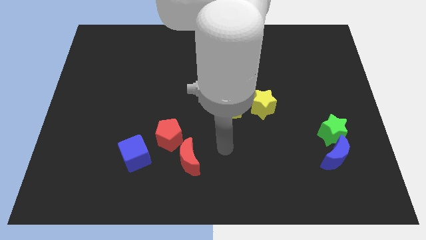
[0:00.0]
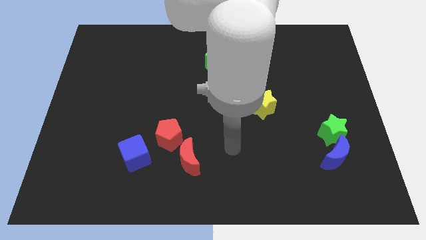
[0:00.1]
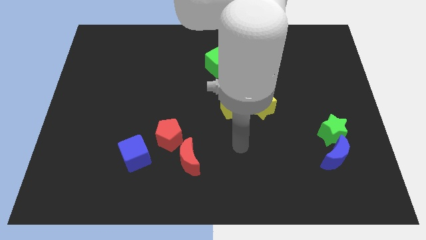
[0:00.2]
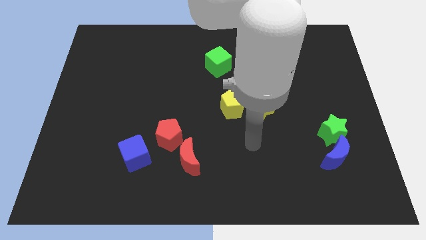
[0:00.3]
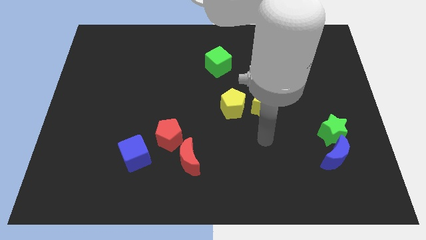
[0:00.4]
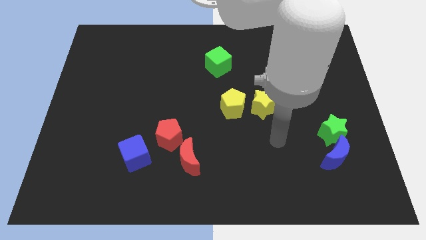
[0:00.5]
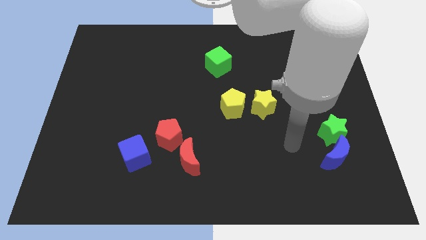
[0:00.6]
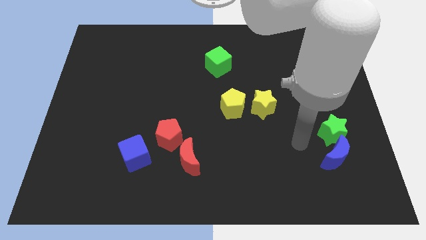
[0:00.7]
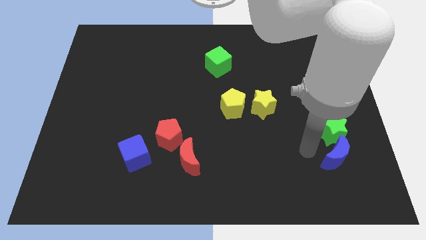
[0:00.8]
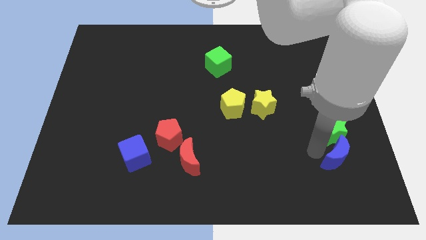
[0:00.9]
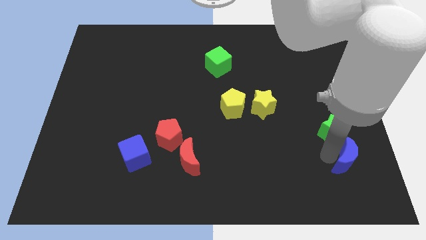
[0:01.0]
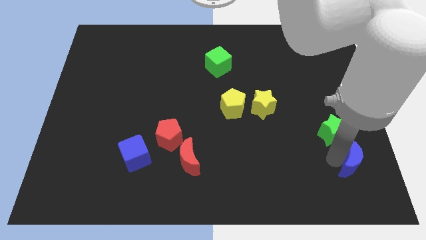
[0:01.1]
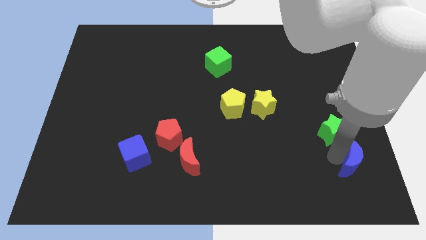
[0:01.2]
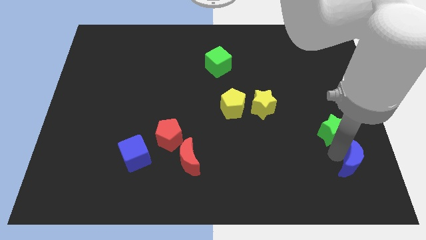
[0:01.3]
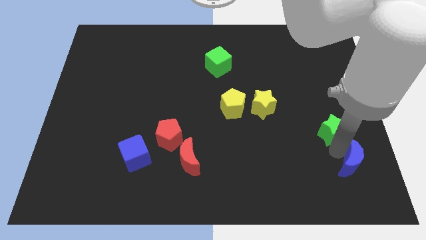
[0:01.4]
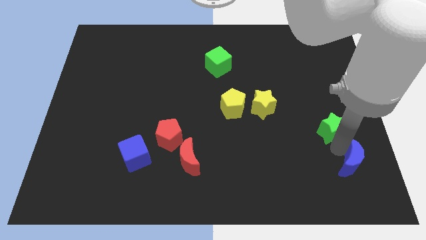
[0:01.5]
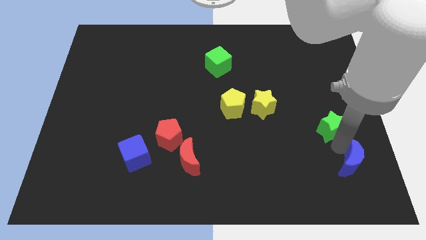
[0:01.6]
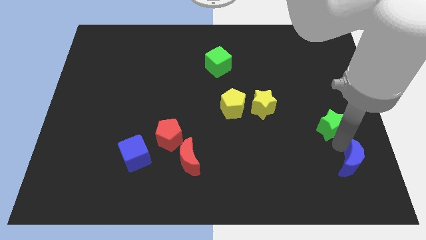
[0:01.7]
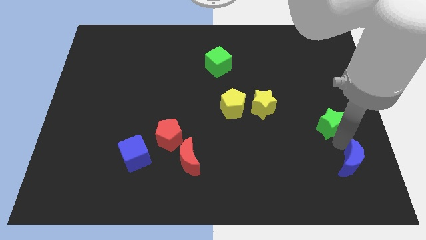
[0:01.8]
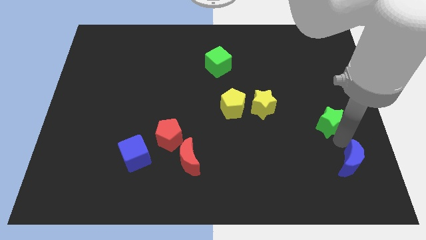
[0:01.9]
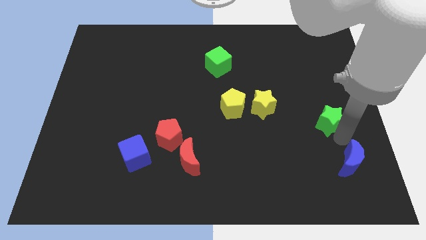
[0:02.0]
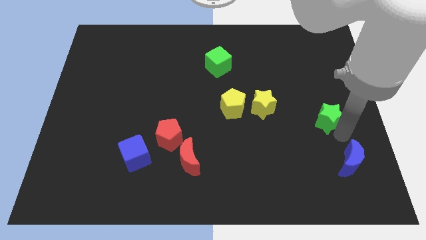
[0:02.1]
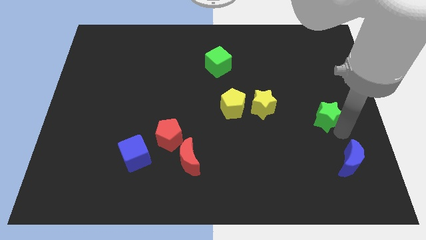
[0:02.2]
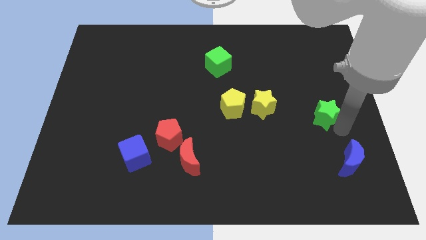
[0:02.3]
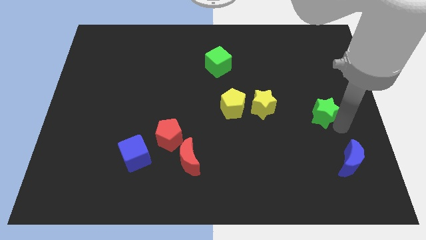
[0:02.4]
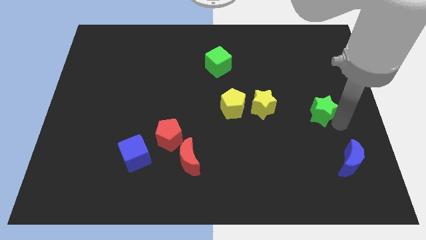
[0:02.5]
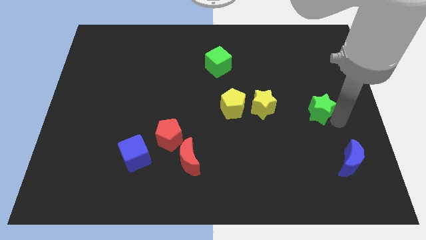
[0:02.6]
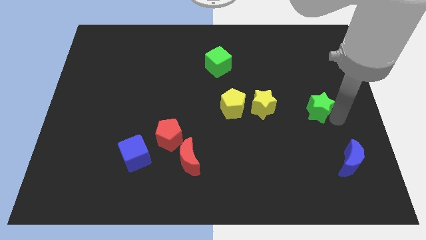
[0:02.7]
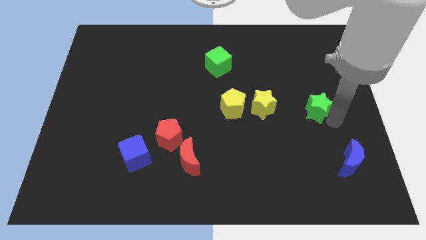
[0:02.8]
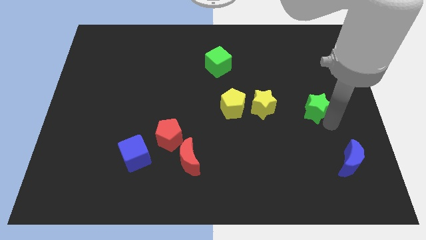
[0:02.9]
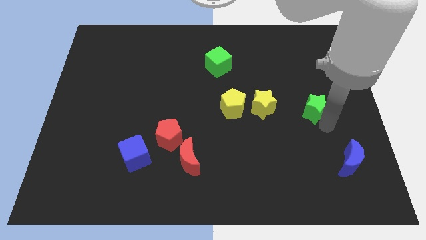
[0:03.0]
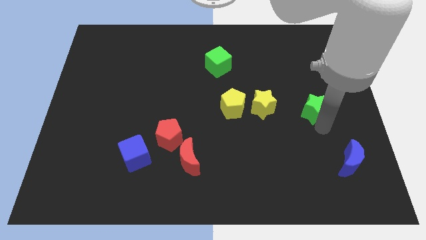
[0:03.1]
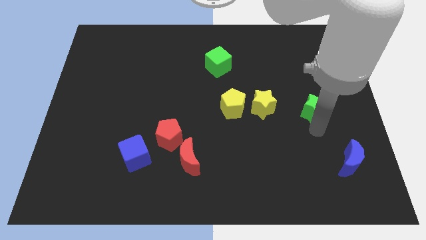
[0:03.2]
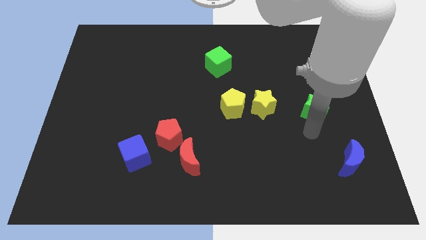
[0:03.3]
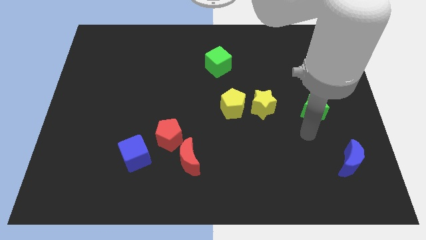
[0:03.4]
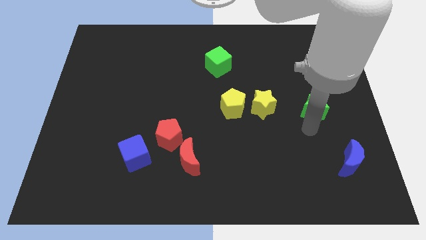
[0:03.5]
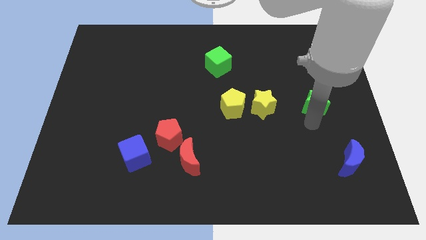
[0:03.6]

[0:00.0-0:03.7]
move the green star up slightly

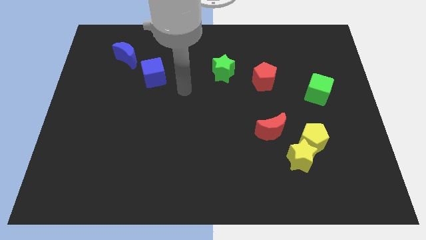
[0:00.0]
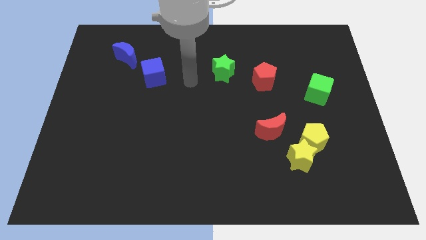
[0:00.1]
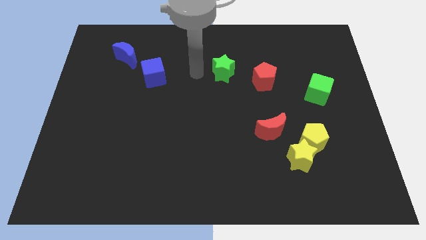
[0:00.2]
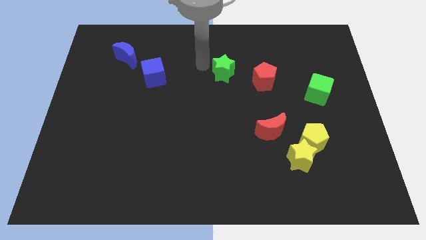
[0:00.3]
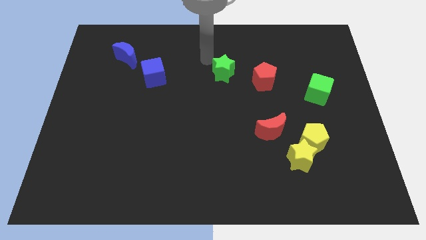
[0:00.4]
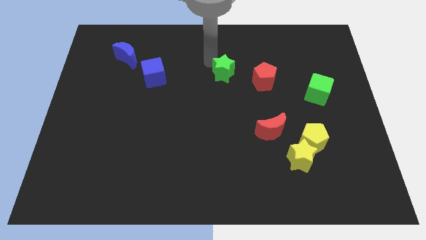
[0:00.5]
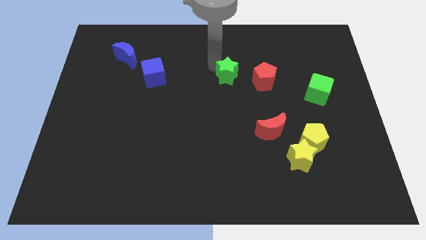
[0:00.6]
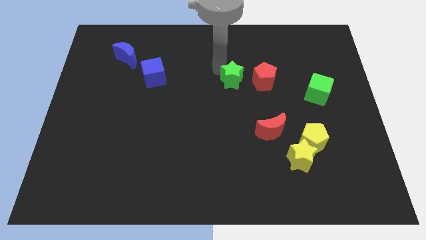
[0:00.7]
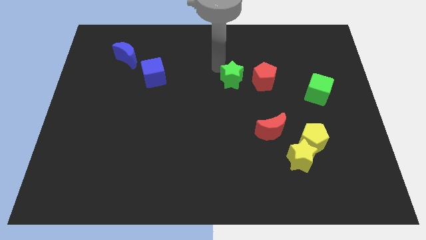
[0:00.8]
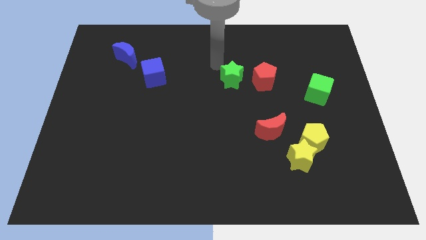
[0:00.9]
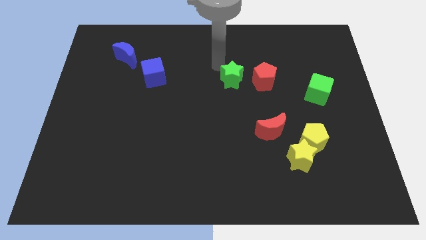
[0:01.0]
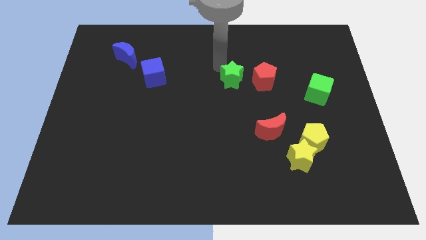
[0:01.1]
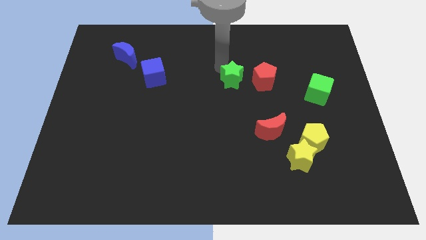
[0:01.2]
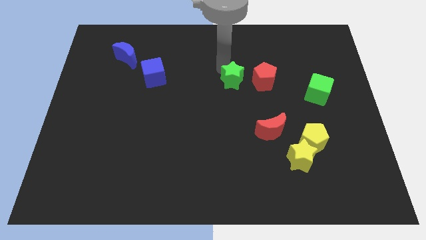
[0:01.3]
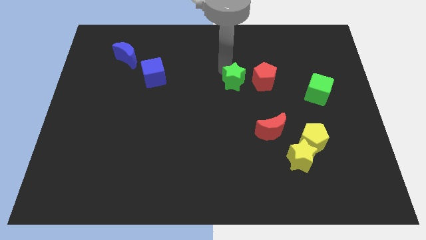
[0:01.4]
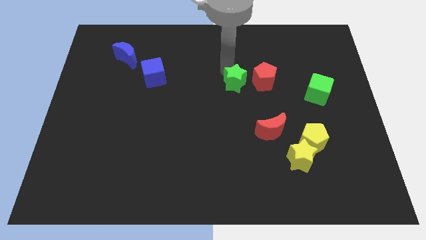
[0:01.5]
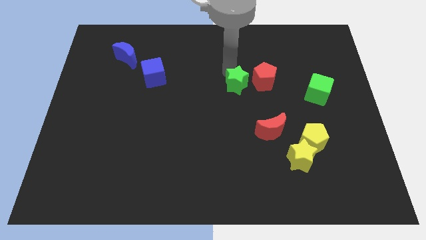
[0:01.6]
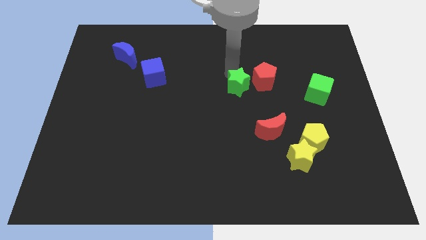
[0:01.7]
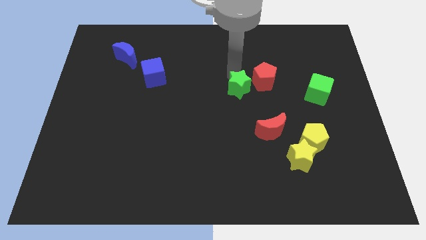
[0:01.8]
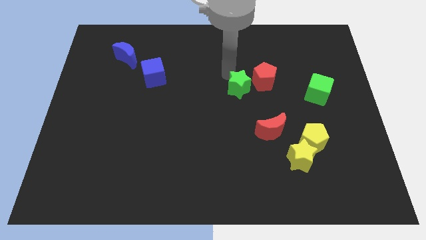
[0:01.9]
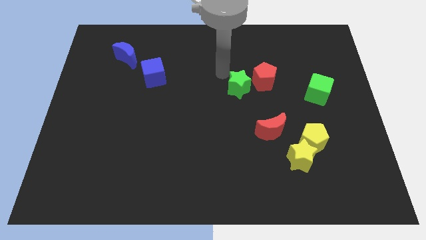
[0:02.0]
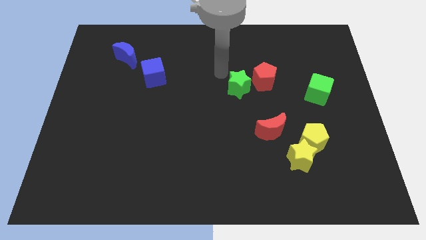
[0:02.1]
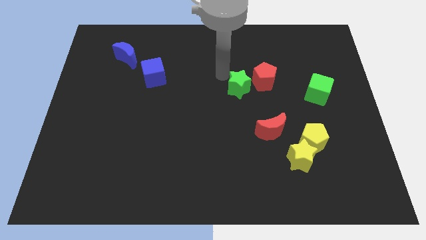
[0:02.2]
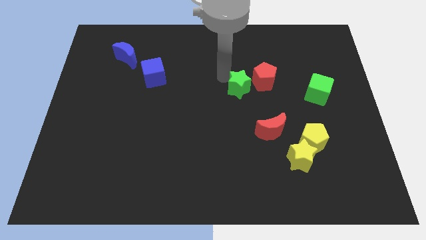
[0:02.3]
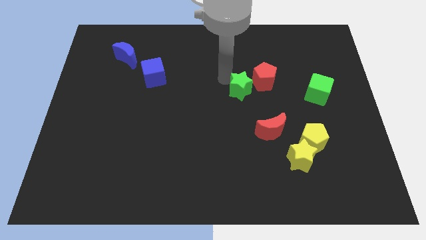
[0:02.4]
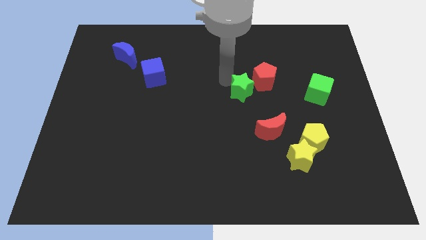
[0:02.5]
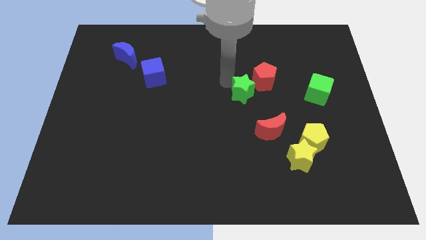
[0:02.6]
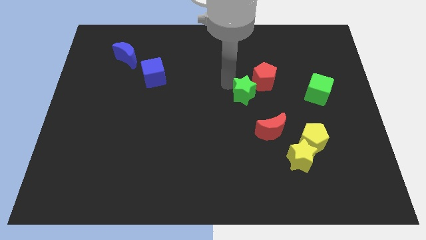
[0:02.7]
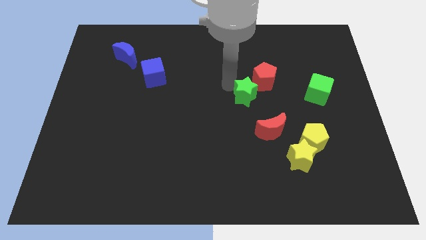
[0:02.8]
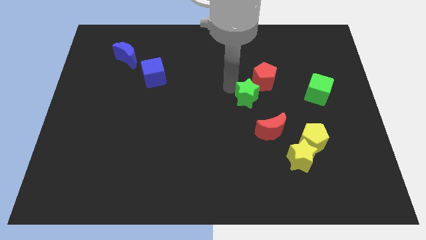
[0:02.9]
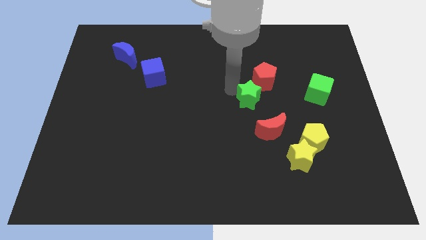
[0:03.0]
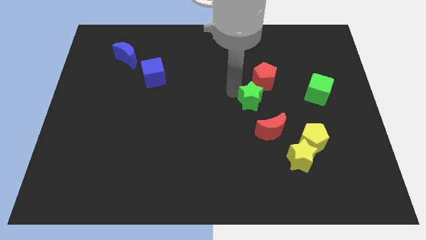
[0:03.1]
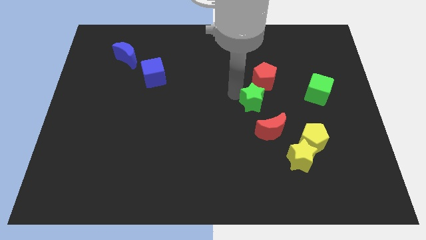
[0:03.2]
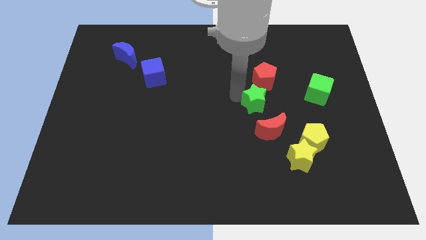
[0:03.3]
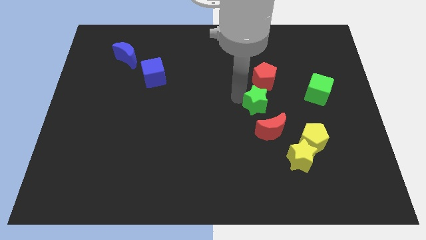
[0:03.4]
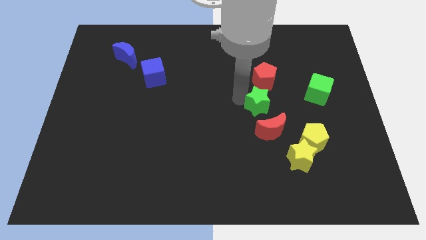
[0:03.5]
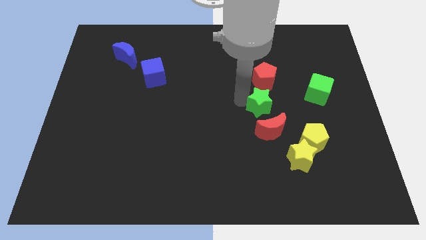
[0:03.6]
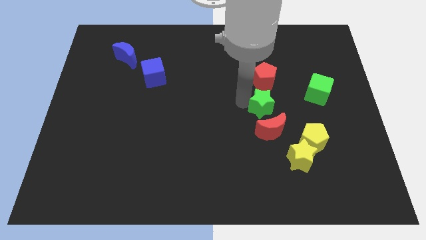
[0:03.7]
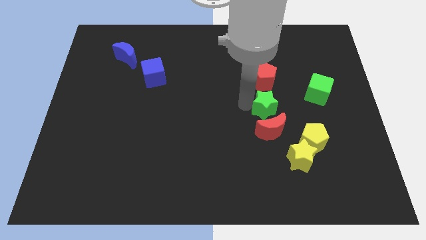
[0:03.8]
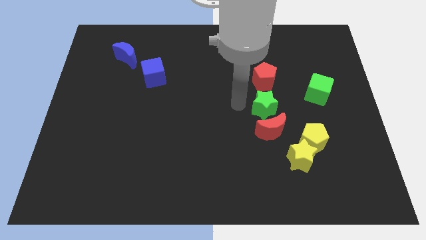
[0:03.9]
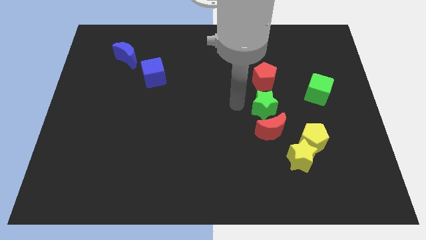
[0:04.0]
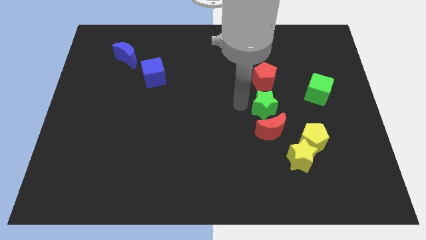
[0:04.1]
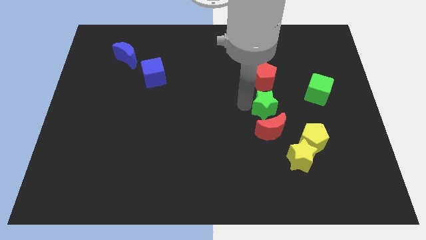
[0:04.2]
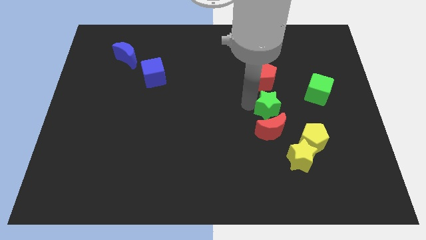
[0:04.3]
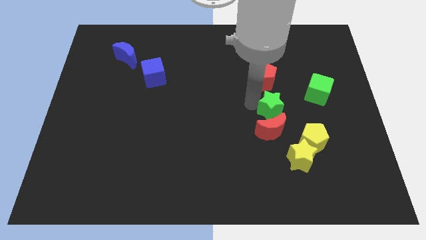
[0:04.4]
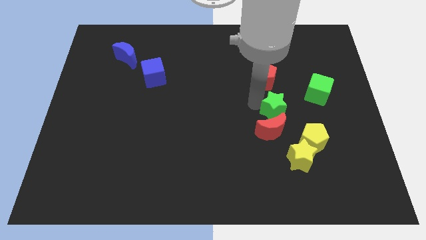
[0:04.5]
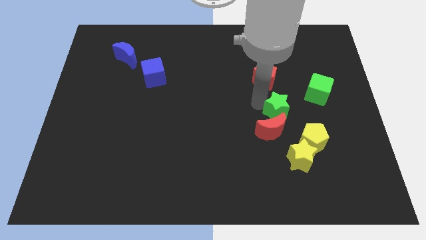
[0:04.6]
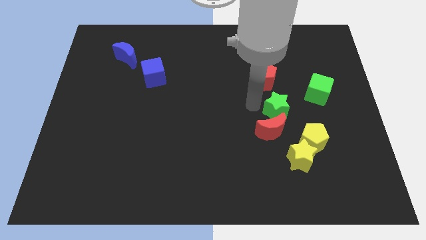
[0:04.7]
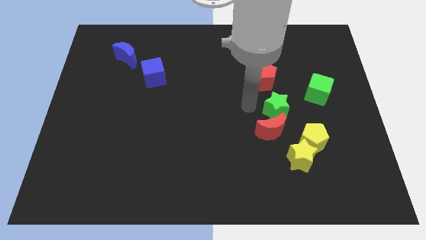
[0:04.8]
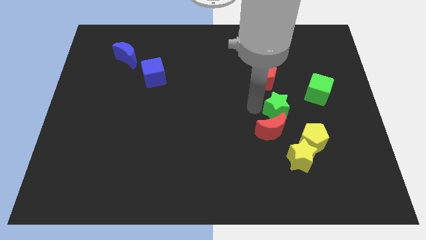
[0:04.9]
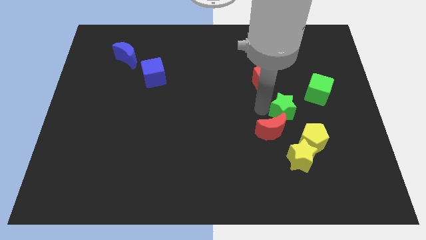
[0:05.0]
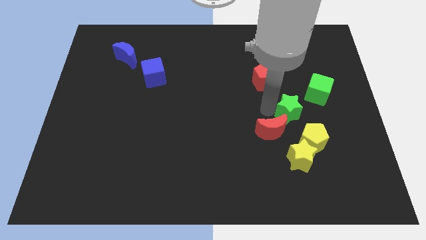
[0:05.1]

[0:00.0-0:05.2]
slide the green star diagonally down and right
